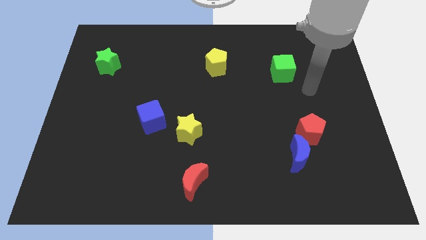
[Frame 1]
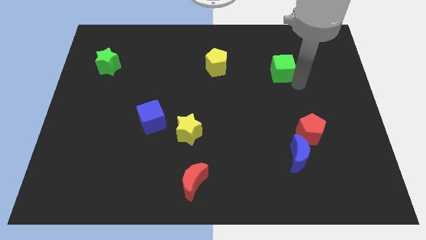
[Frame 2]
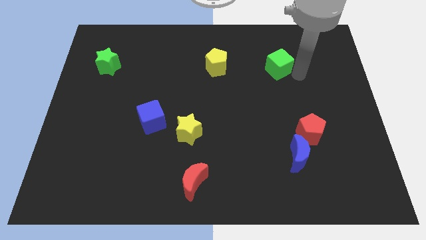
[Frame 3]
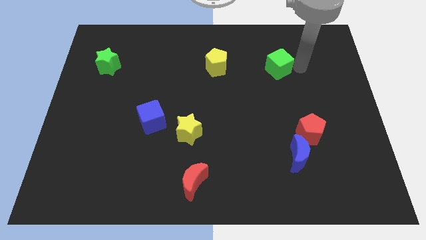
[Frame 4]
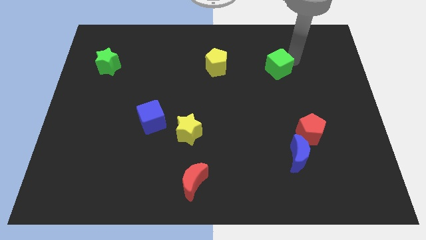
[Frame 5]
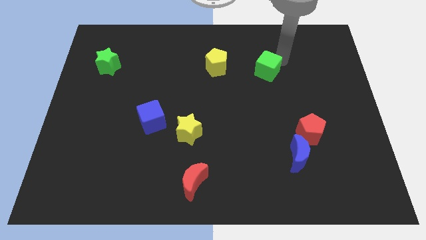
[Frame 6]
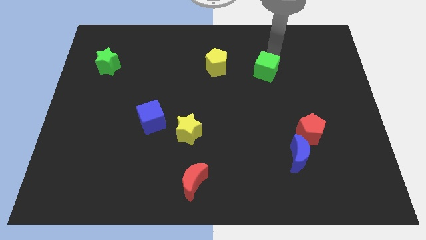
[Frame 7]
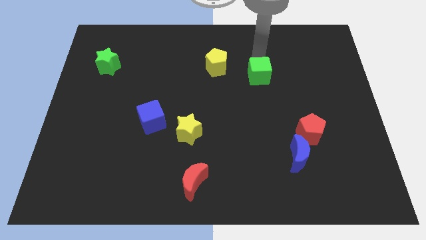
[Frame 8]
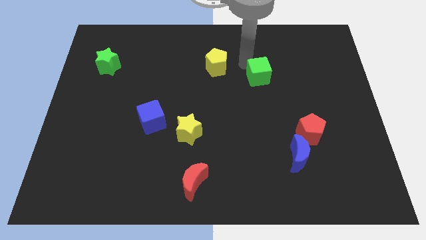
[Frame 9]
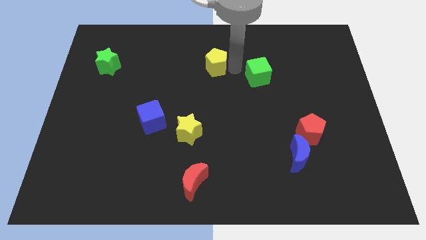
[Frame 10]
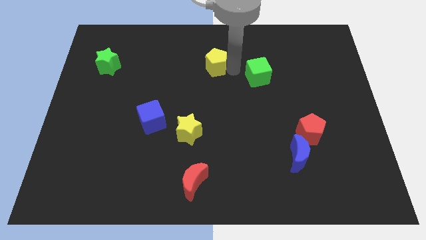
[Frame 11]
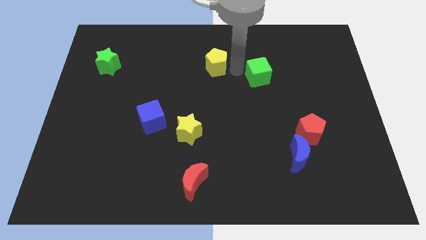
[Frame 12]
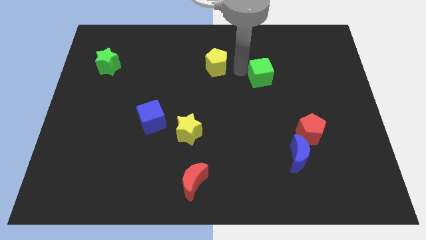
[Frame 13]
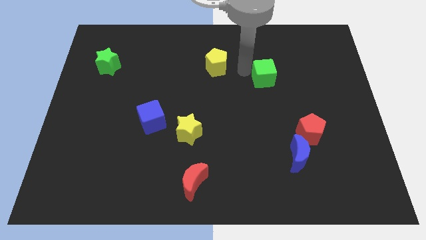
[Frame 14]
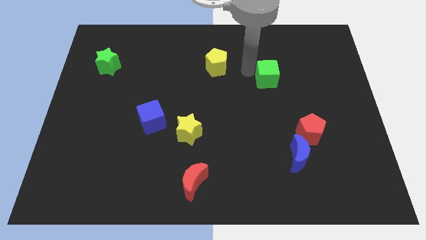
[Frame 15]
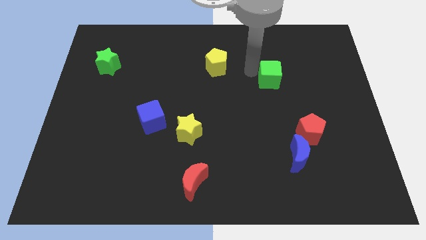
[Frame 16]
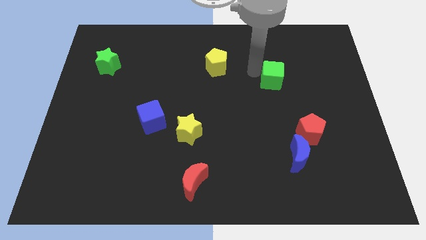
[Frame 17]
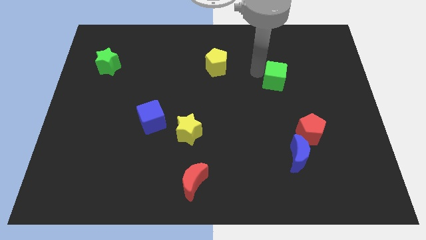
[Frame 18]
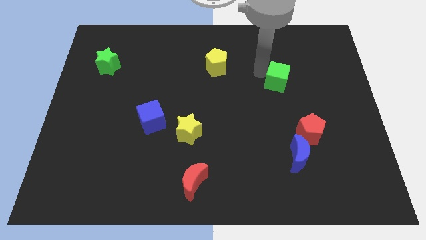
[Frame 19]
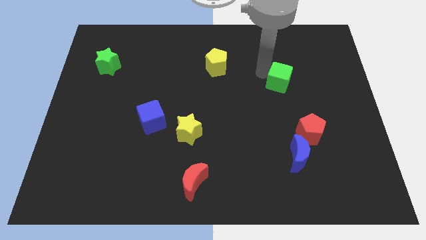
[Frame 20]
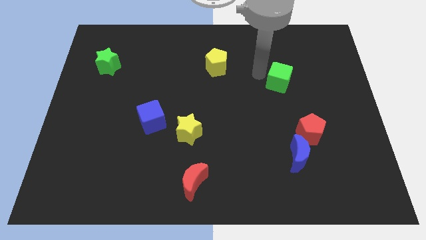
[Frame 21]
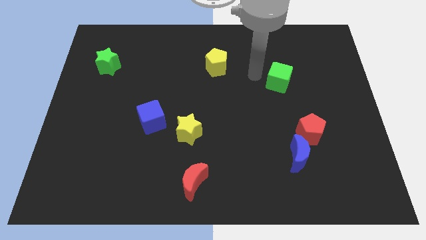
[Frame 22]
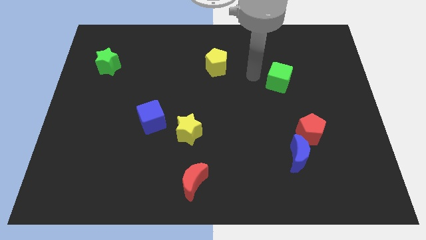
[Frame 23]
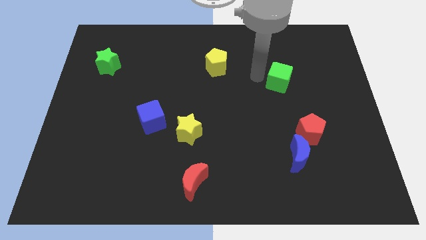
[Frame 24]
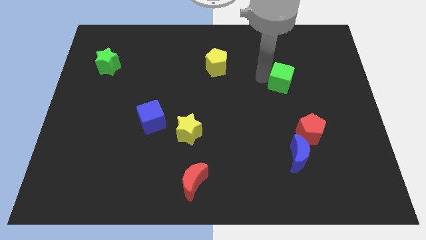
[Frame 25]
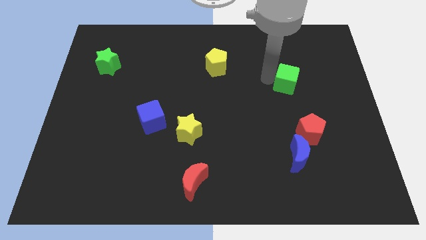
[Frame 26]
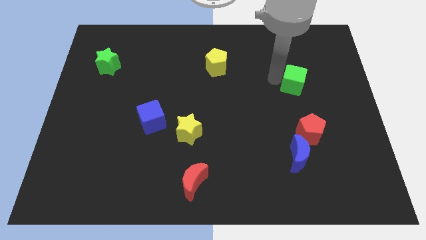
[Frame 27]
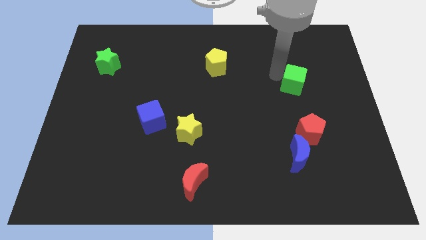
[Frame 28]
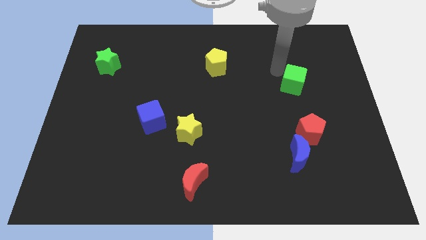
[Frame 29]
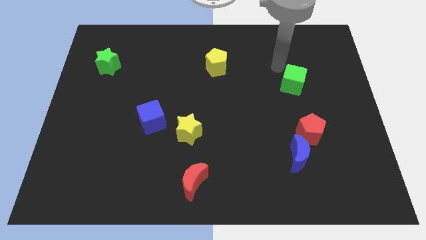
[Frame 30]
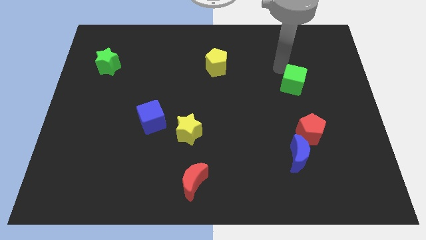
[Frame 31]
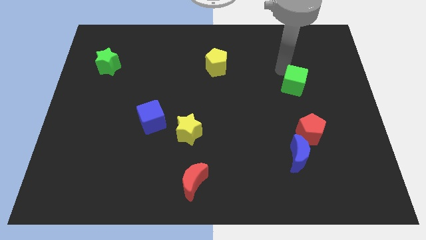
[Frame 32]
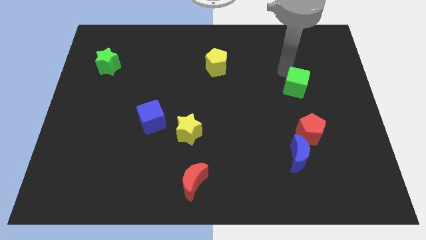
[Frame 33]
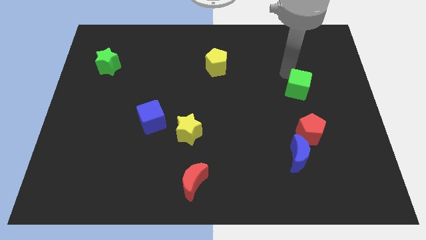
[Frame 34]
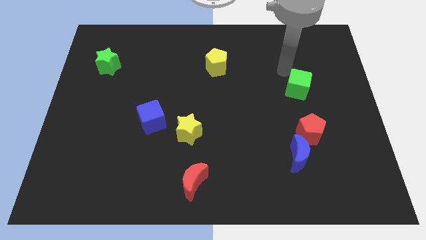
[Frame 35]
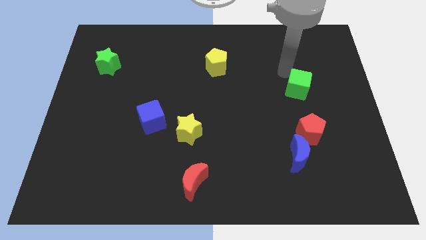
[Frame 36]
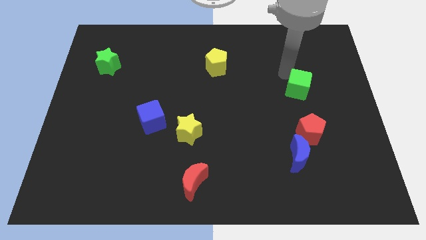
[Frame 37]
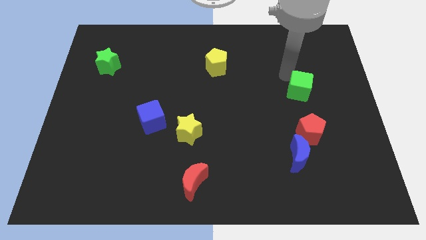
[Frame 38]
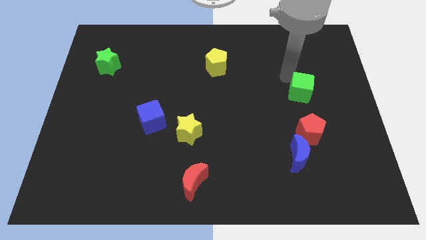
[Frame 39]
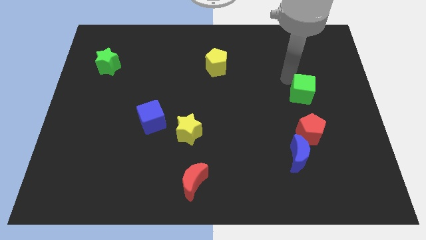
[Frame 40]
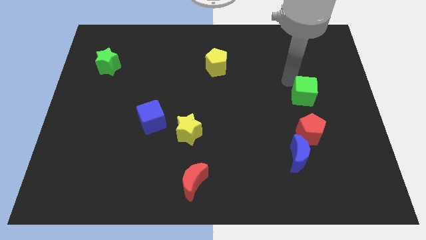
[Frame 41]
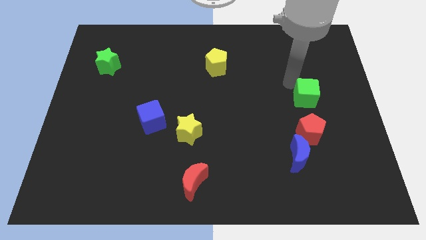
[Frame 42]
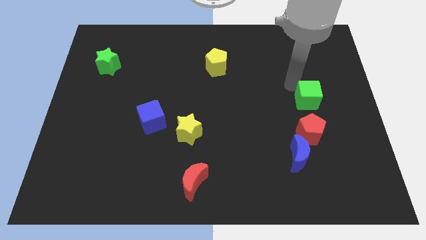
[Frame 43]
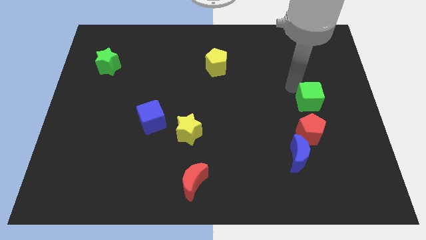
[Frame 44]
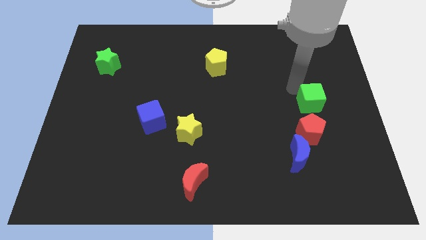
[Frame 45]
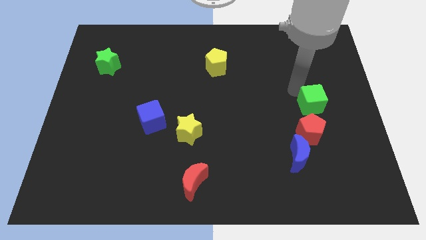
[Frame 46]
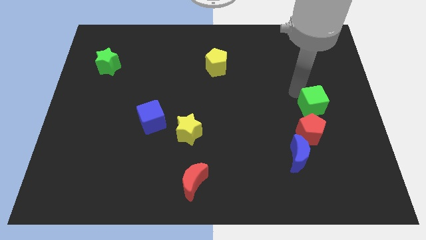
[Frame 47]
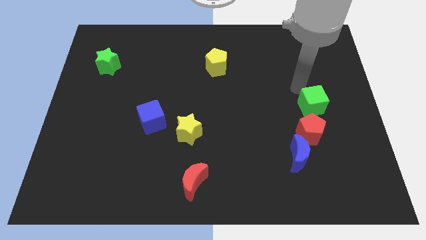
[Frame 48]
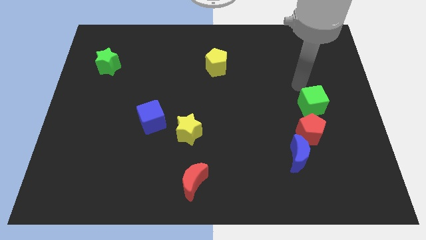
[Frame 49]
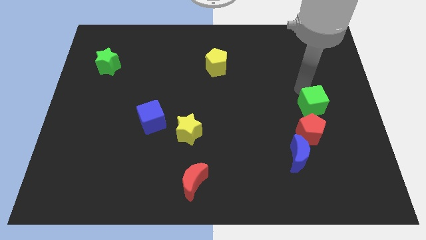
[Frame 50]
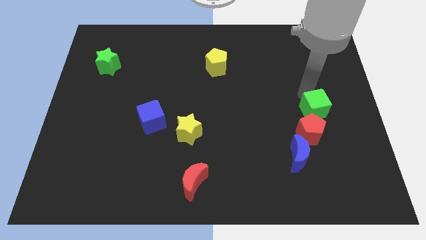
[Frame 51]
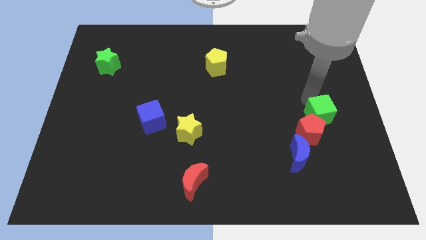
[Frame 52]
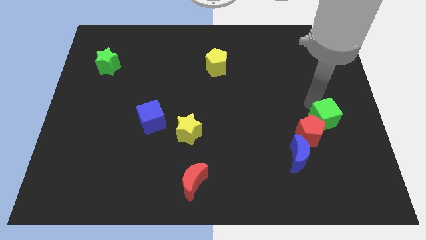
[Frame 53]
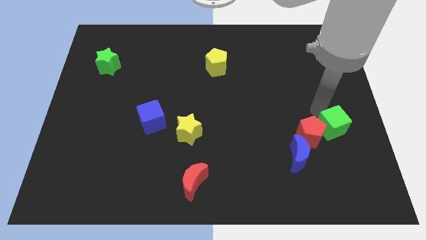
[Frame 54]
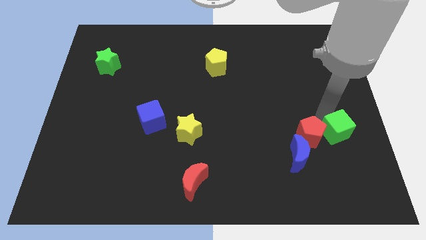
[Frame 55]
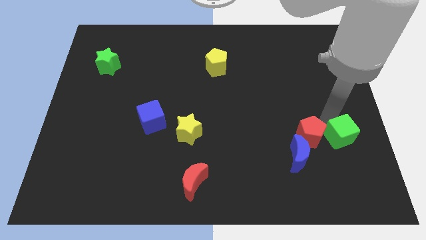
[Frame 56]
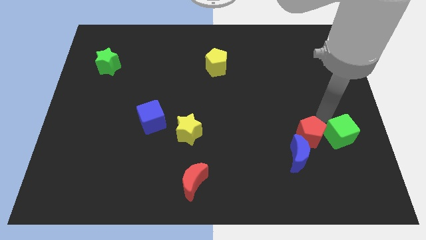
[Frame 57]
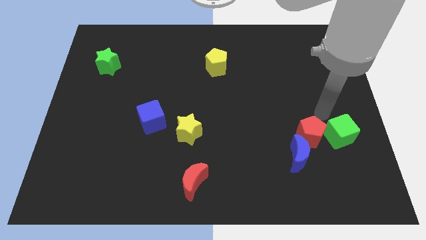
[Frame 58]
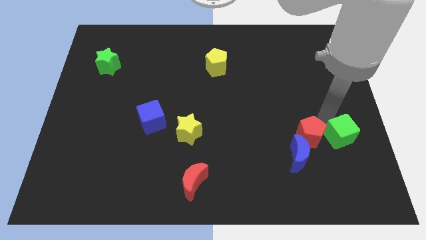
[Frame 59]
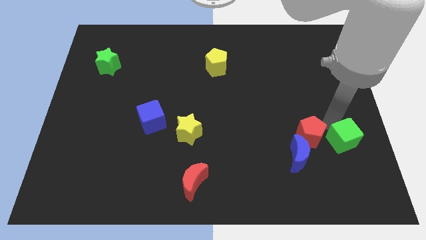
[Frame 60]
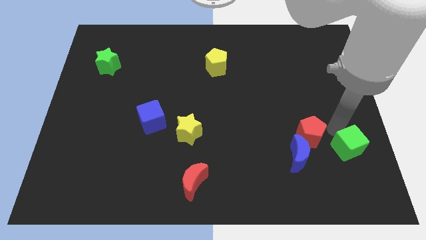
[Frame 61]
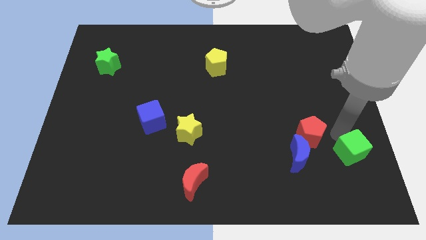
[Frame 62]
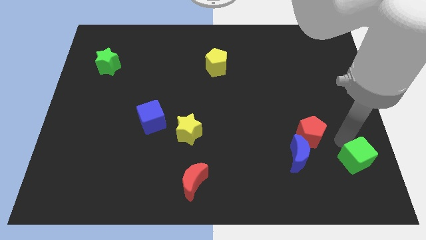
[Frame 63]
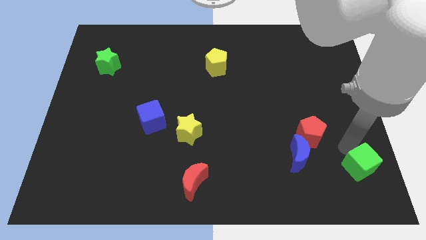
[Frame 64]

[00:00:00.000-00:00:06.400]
move the green cube to the bottom right corner
